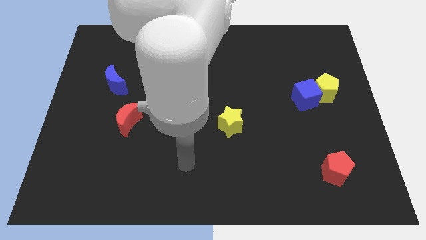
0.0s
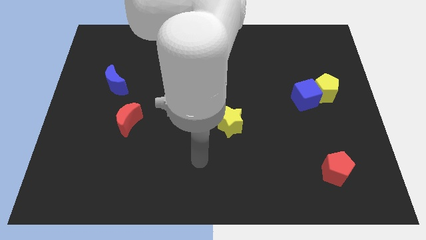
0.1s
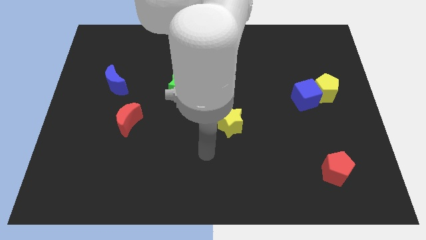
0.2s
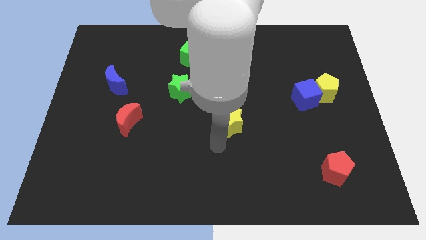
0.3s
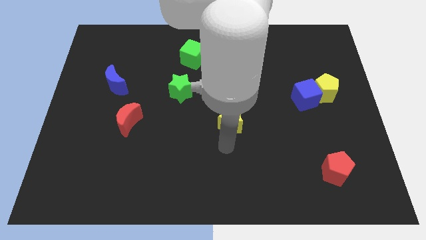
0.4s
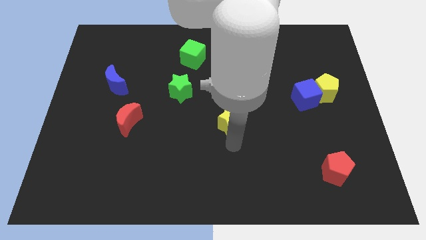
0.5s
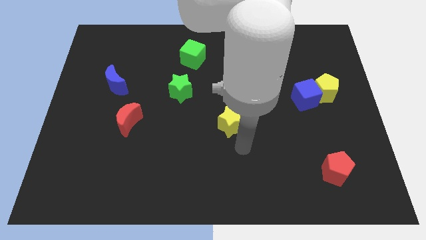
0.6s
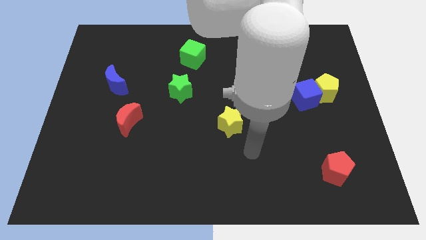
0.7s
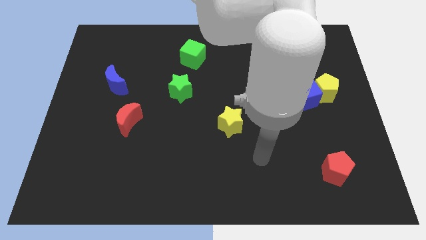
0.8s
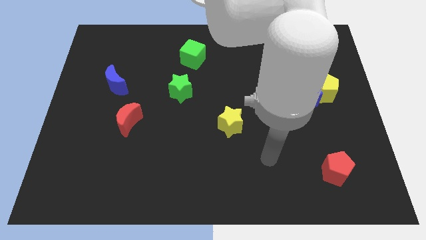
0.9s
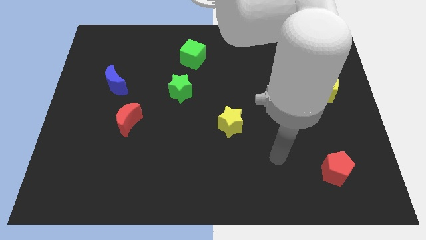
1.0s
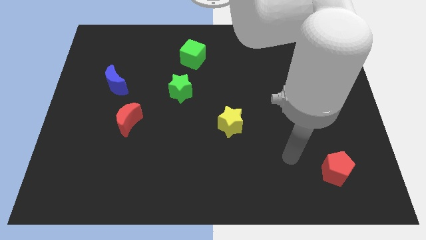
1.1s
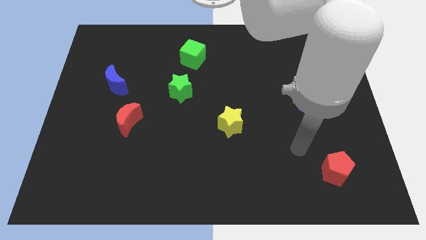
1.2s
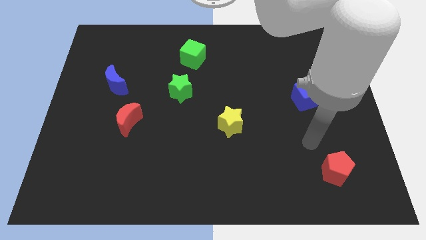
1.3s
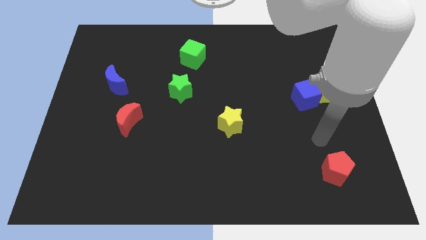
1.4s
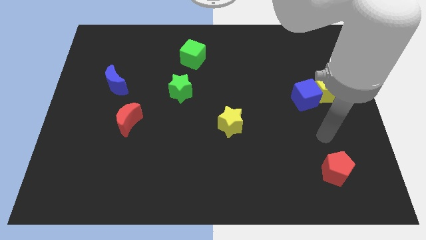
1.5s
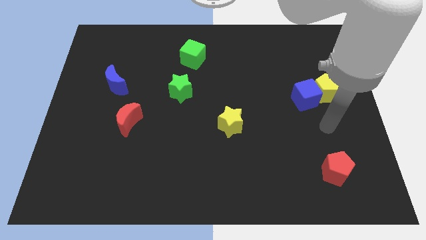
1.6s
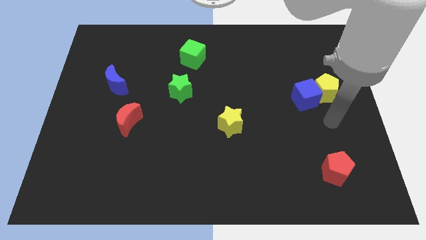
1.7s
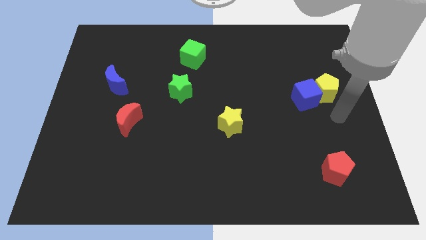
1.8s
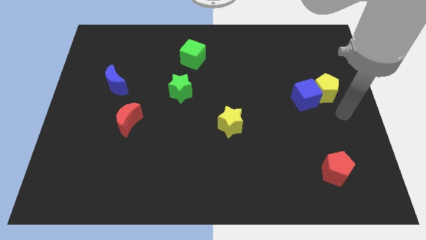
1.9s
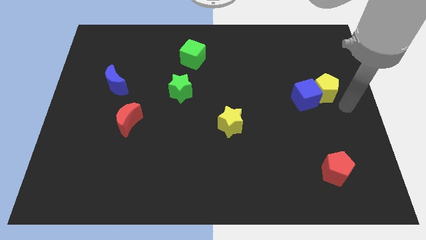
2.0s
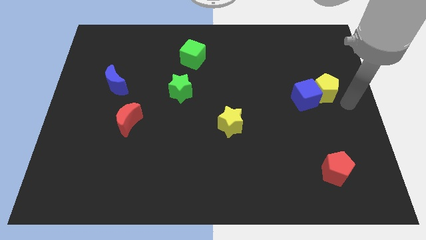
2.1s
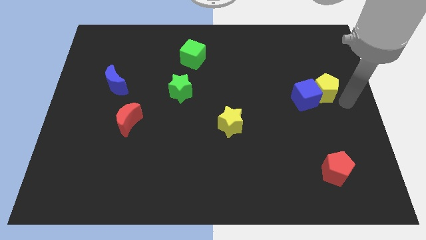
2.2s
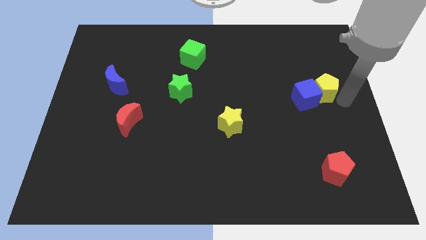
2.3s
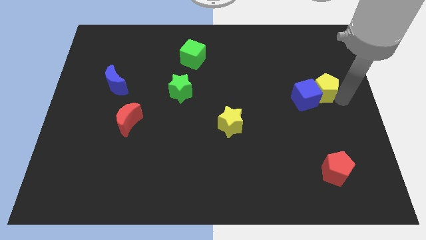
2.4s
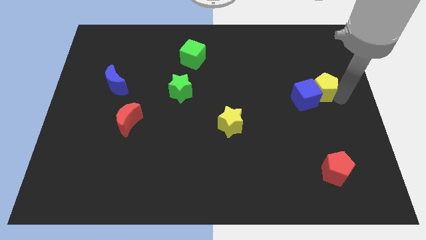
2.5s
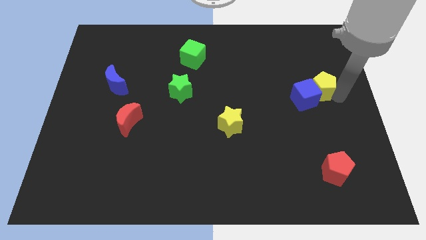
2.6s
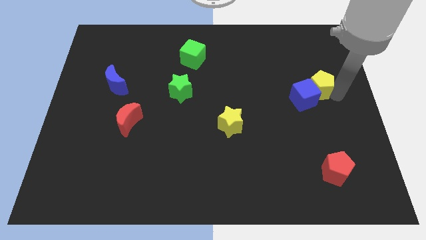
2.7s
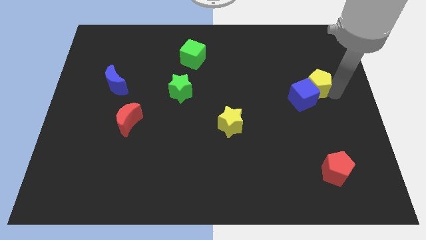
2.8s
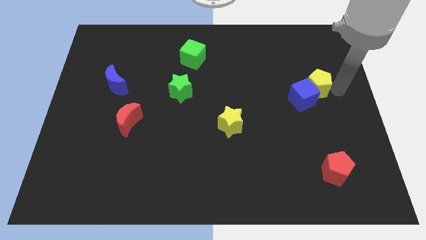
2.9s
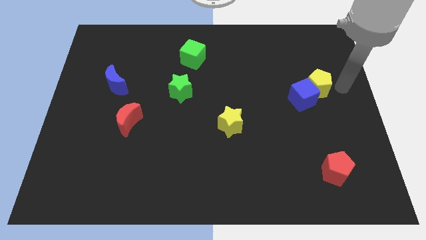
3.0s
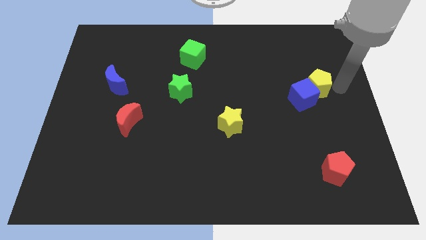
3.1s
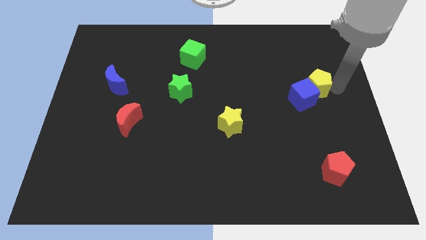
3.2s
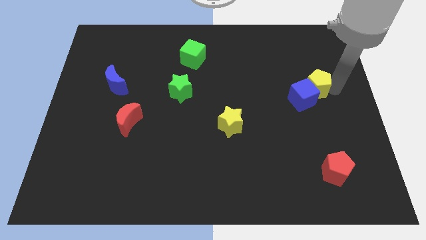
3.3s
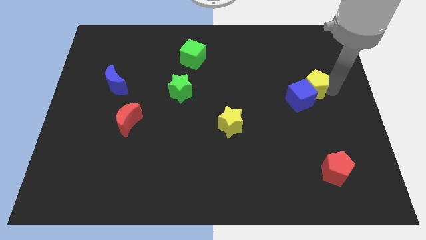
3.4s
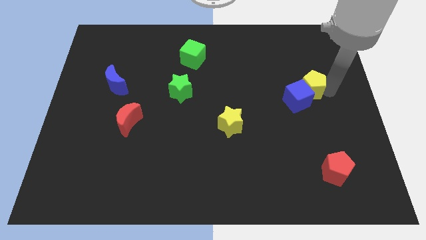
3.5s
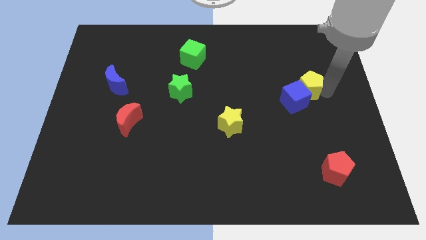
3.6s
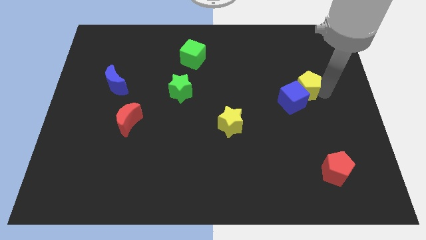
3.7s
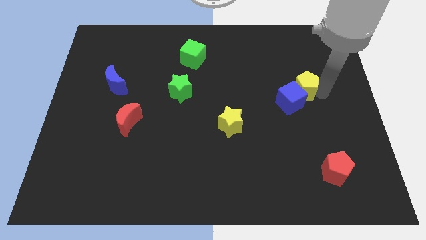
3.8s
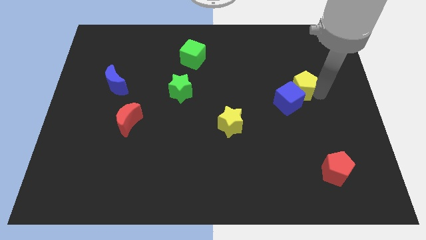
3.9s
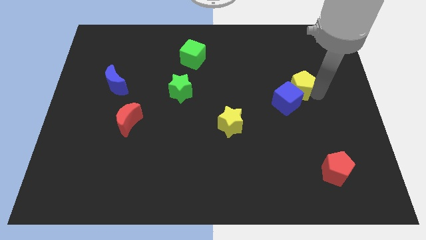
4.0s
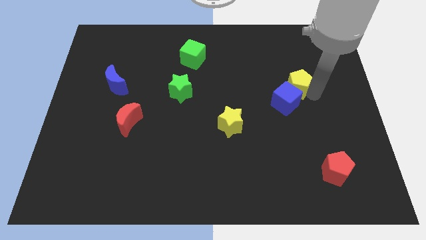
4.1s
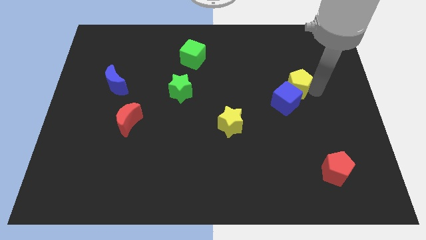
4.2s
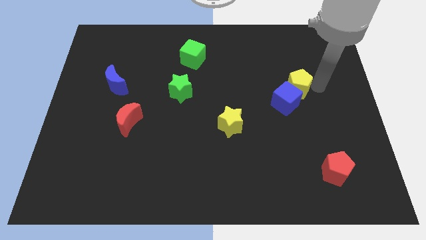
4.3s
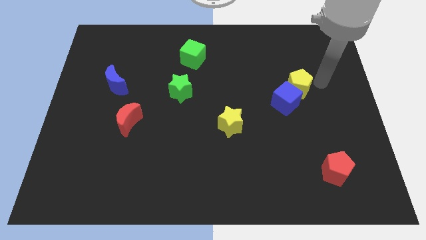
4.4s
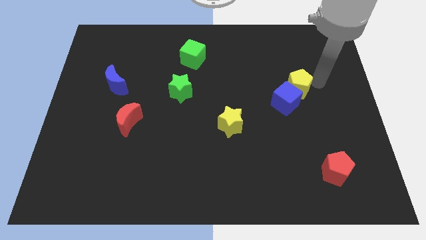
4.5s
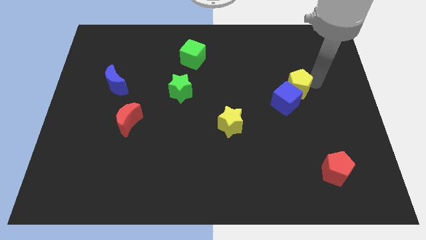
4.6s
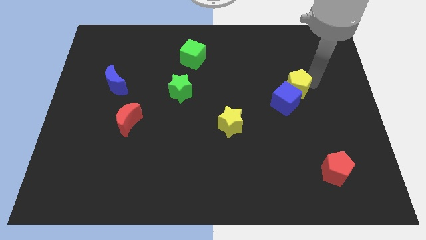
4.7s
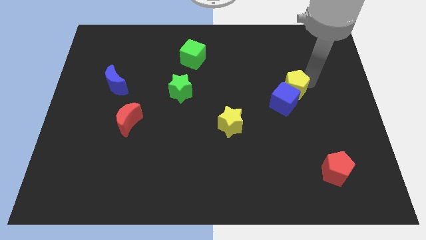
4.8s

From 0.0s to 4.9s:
move the yellow pentagon slightly left

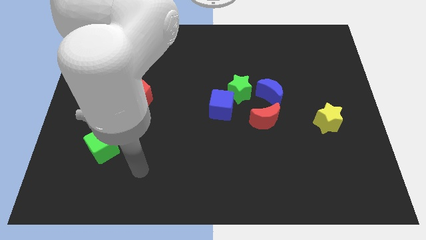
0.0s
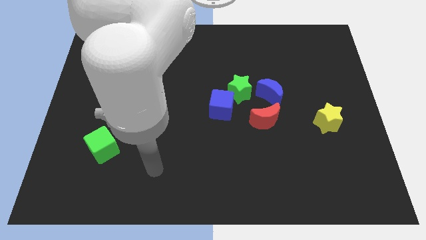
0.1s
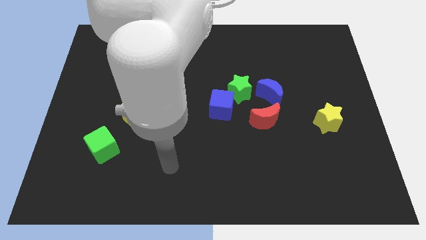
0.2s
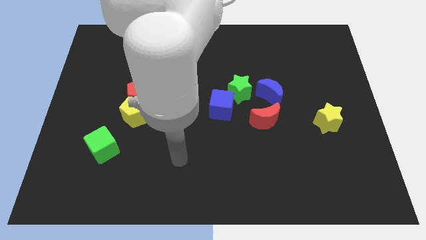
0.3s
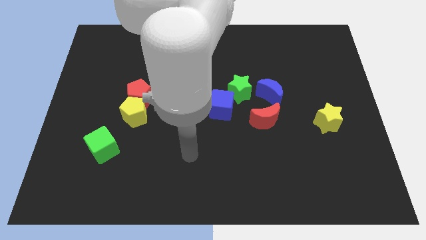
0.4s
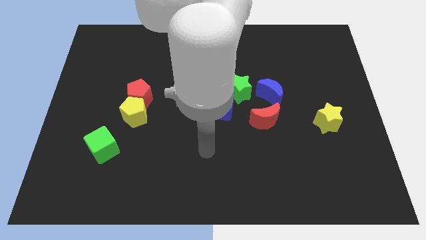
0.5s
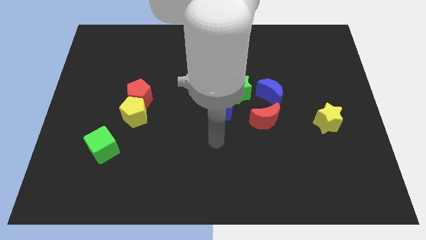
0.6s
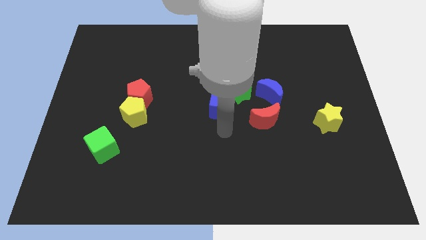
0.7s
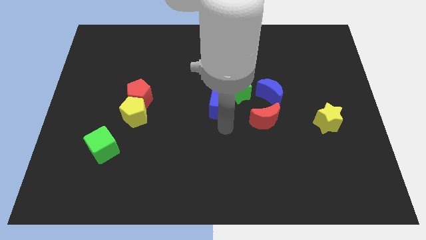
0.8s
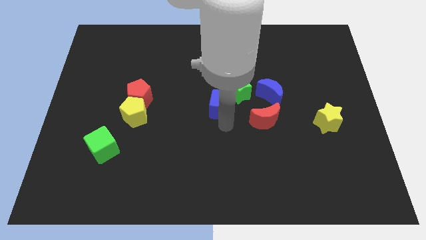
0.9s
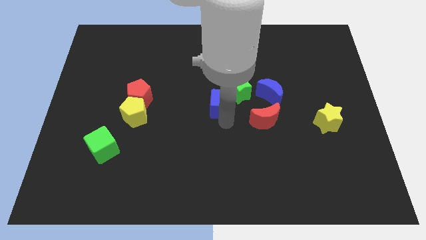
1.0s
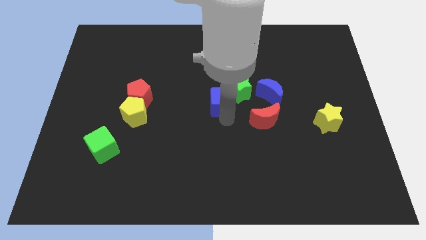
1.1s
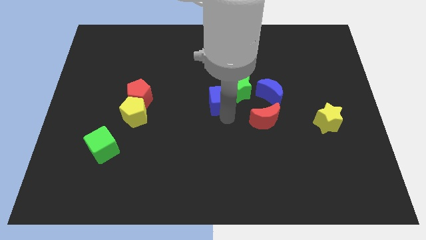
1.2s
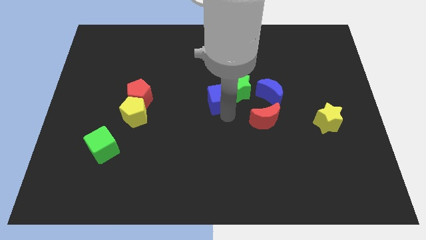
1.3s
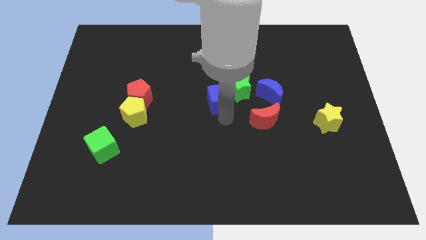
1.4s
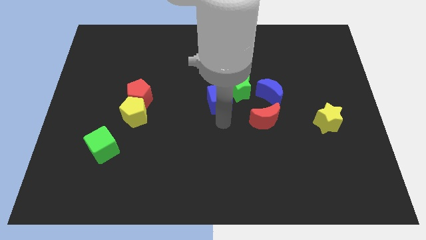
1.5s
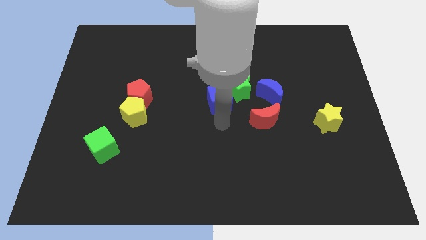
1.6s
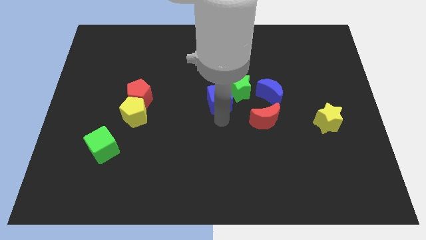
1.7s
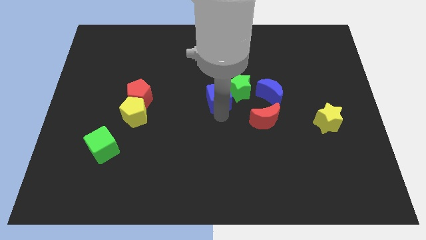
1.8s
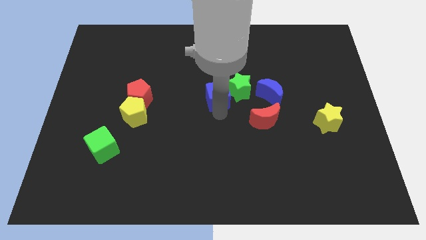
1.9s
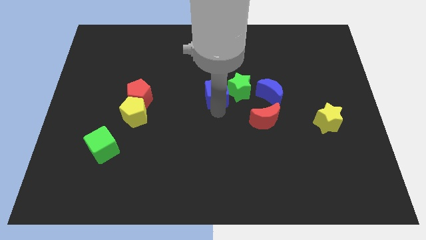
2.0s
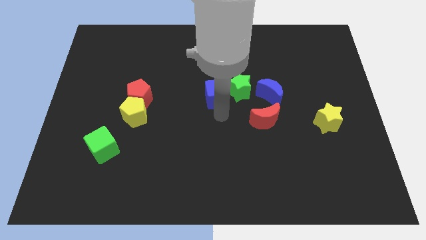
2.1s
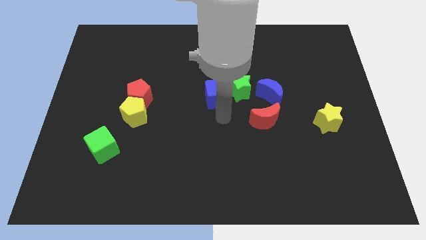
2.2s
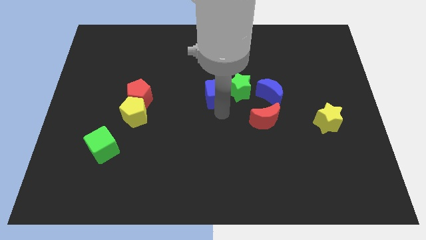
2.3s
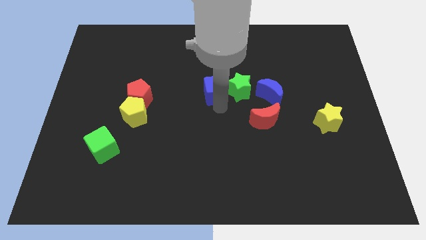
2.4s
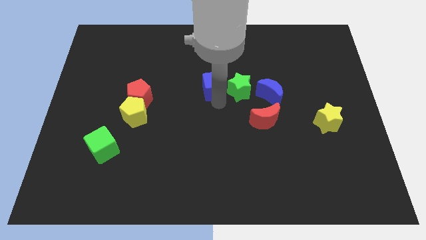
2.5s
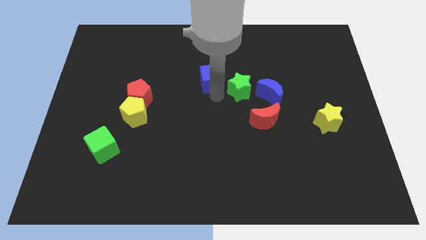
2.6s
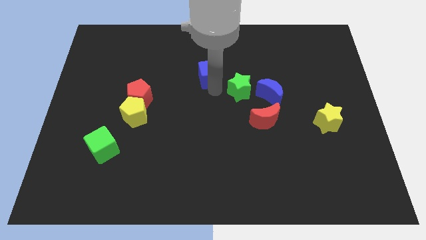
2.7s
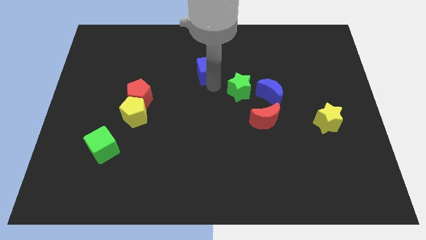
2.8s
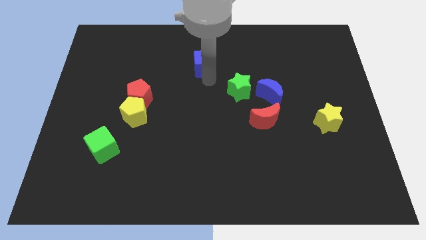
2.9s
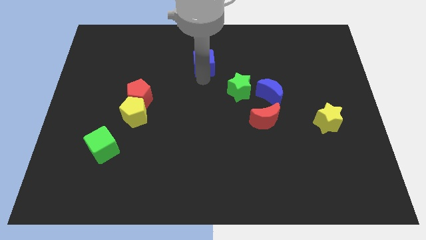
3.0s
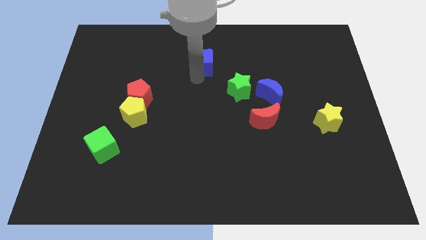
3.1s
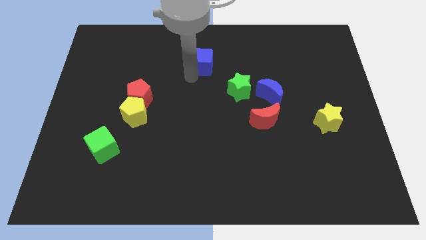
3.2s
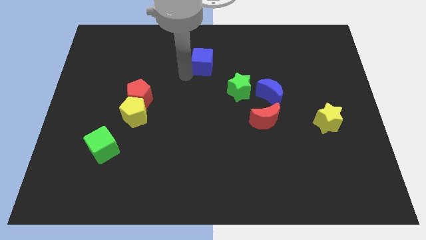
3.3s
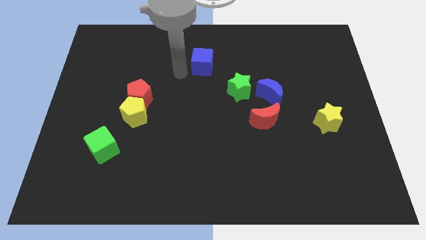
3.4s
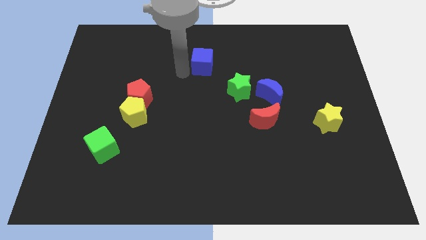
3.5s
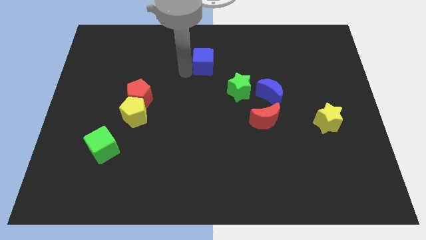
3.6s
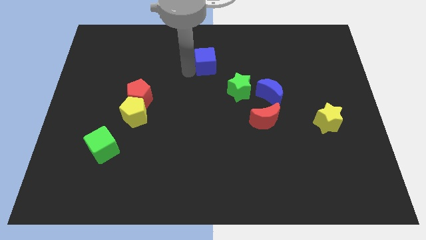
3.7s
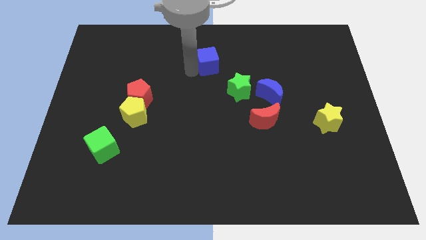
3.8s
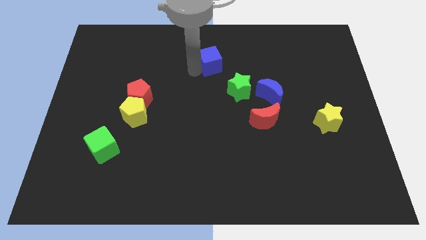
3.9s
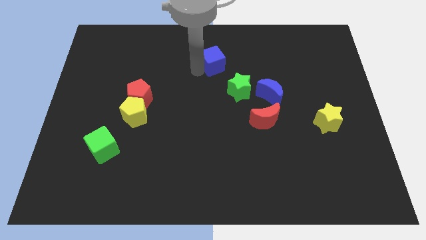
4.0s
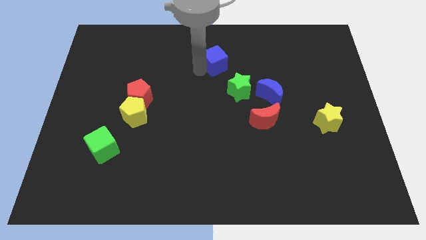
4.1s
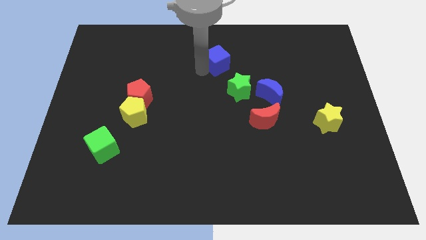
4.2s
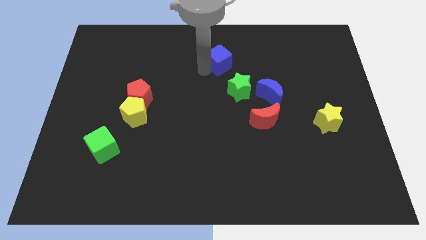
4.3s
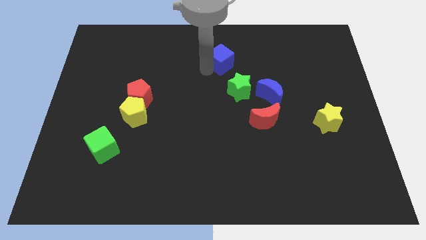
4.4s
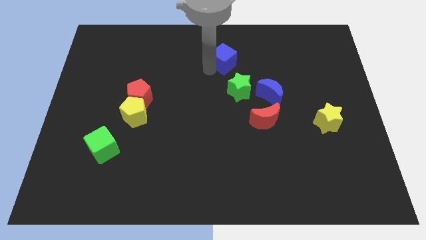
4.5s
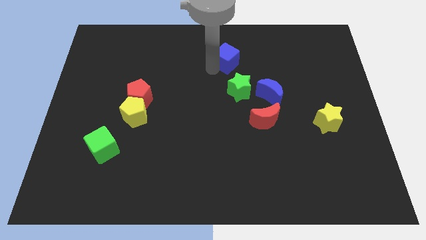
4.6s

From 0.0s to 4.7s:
slightly move the blue cube upwards and right diagonally
